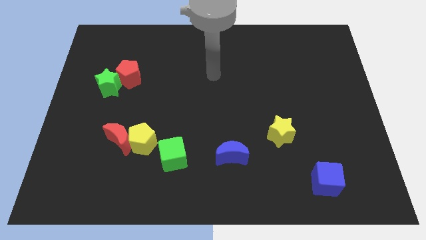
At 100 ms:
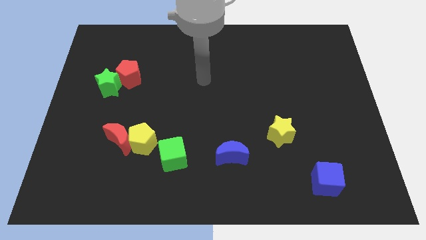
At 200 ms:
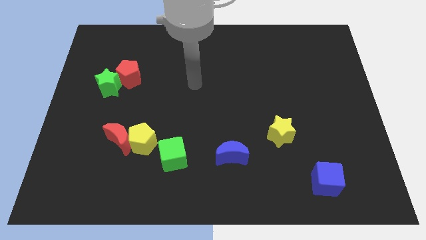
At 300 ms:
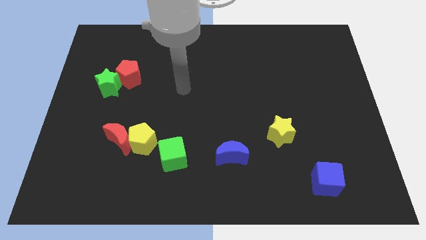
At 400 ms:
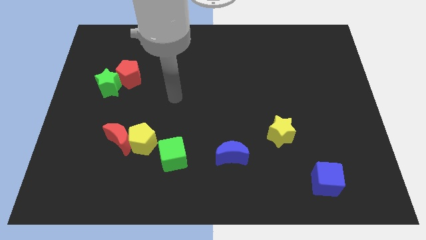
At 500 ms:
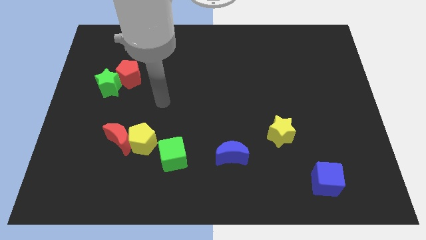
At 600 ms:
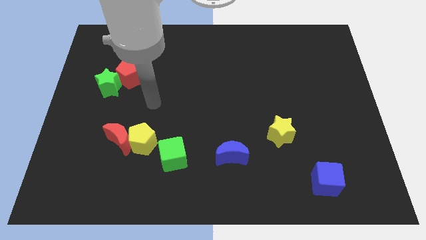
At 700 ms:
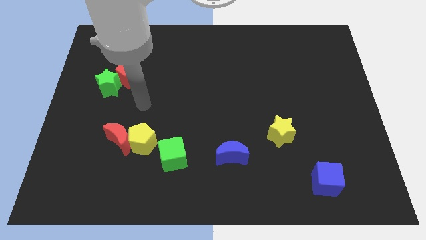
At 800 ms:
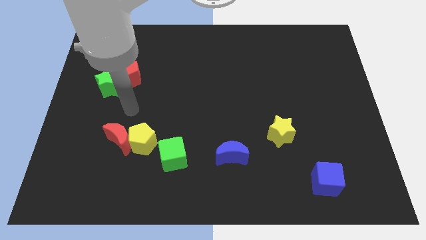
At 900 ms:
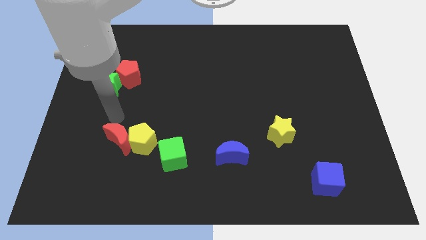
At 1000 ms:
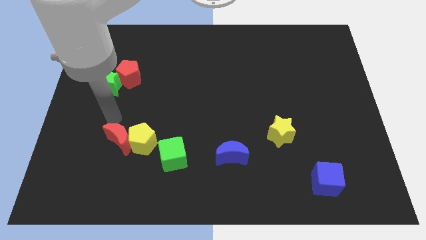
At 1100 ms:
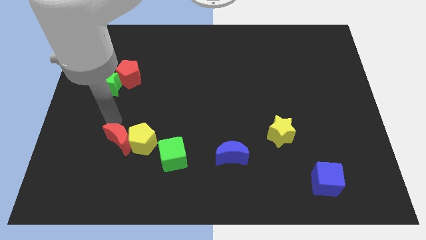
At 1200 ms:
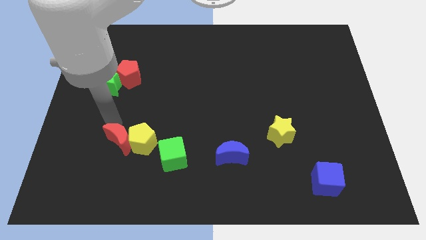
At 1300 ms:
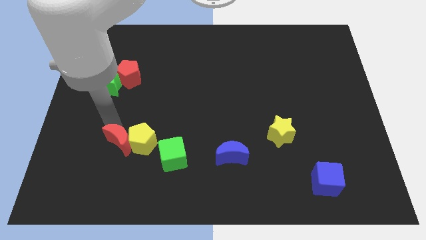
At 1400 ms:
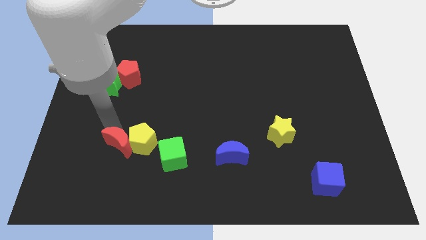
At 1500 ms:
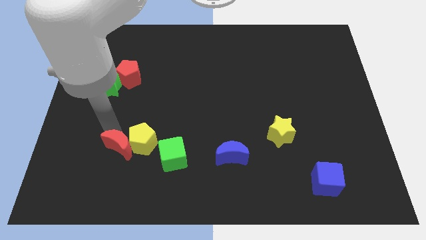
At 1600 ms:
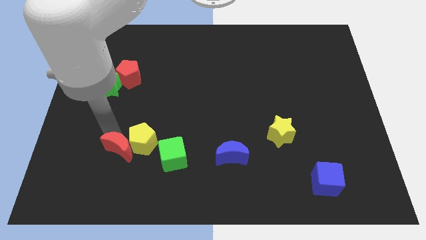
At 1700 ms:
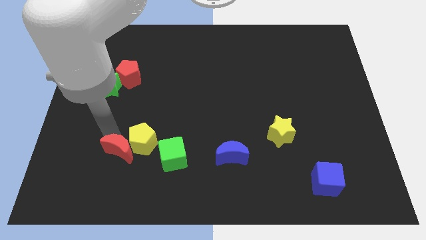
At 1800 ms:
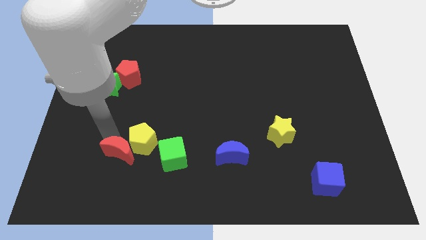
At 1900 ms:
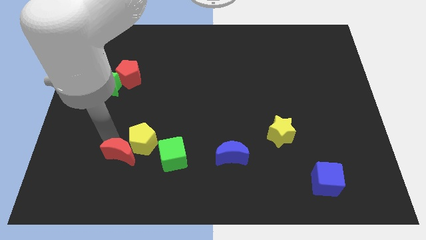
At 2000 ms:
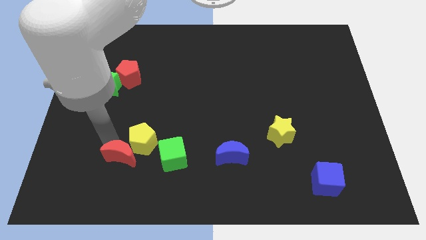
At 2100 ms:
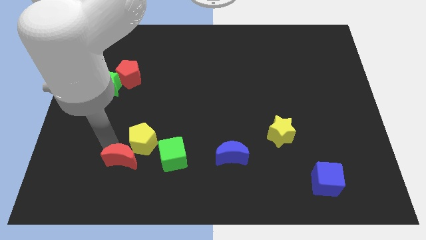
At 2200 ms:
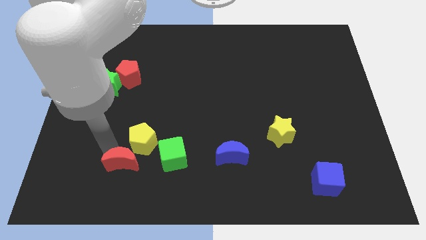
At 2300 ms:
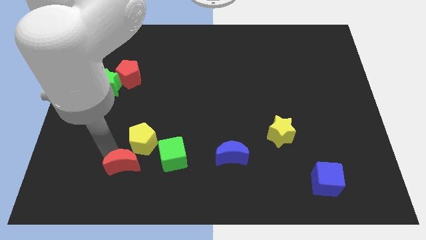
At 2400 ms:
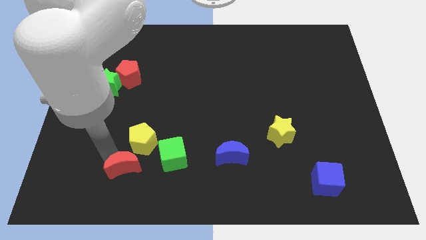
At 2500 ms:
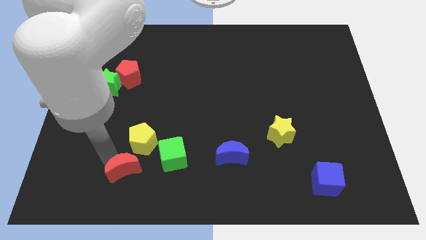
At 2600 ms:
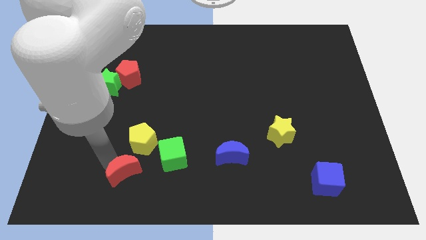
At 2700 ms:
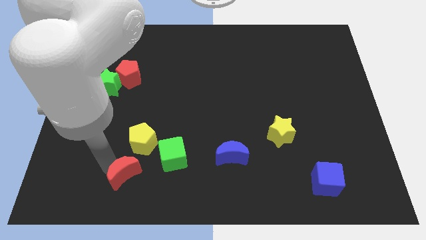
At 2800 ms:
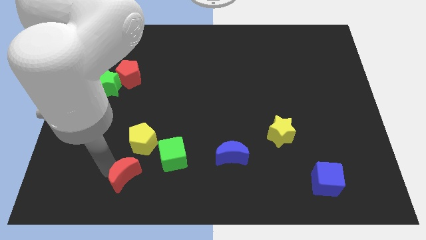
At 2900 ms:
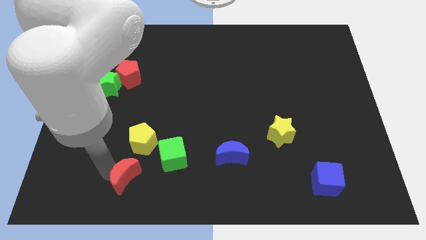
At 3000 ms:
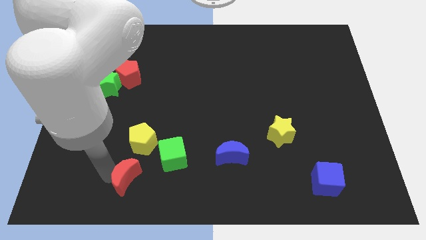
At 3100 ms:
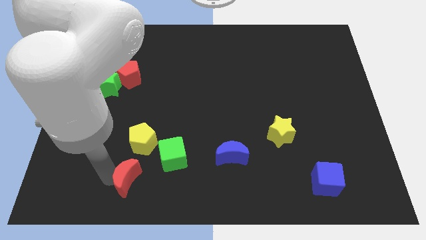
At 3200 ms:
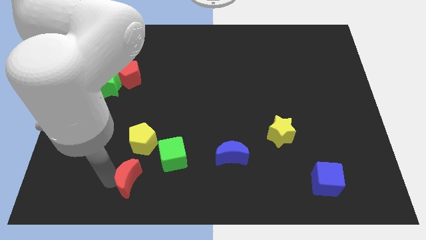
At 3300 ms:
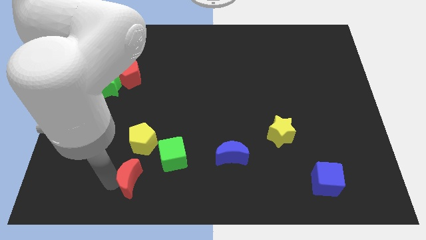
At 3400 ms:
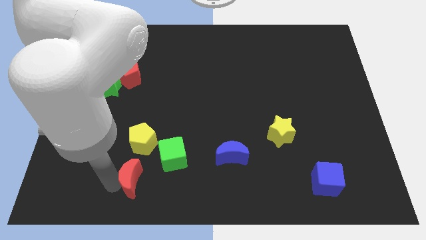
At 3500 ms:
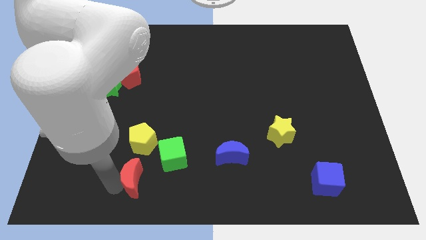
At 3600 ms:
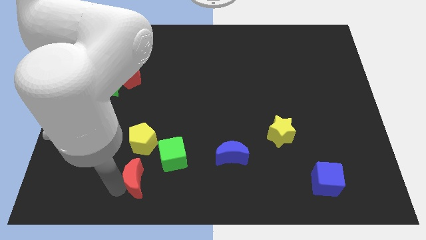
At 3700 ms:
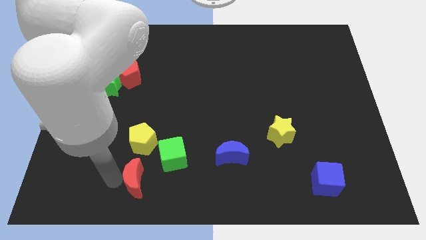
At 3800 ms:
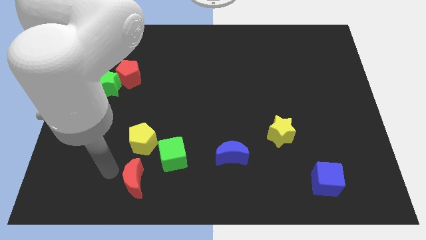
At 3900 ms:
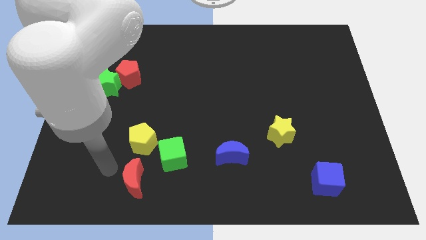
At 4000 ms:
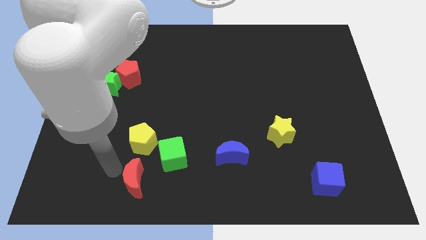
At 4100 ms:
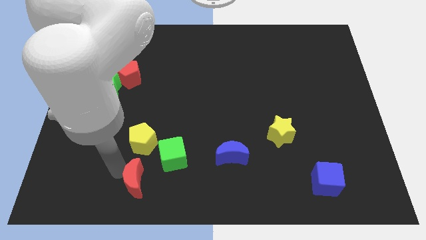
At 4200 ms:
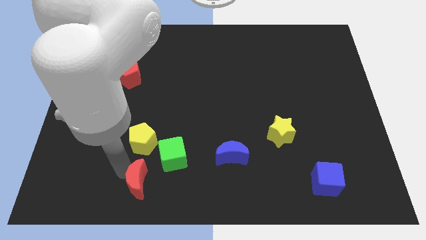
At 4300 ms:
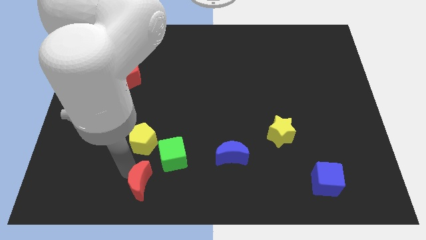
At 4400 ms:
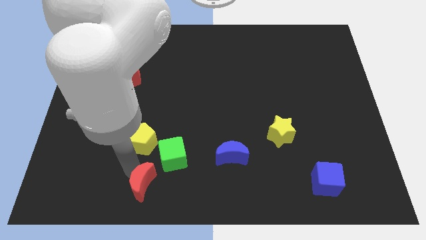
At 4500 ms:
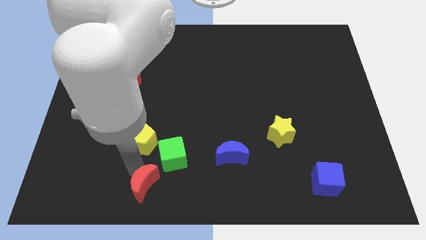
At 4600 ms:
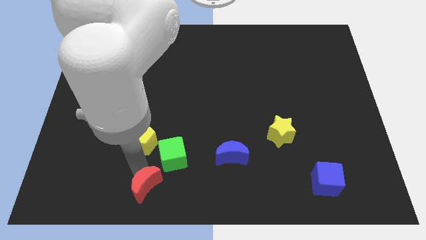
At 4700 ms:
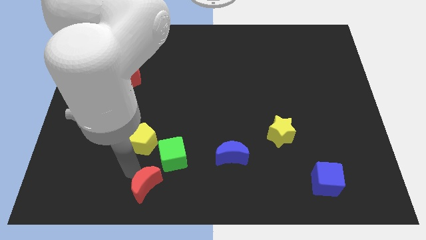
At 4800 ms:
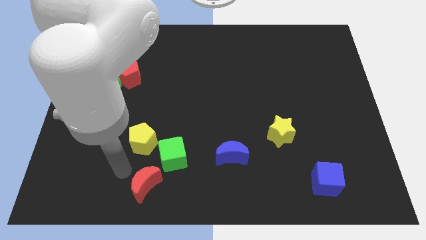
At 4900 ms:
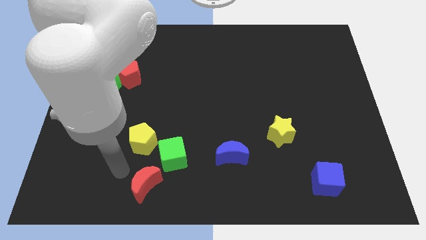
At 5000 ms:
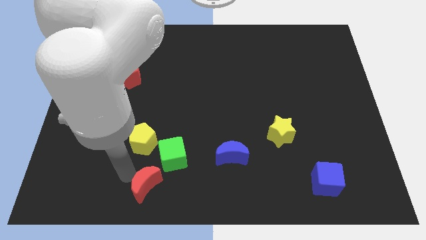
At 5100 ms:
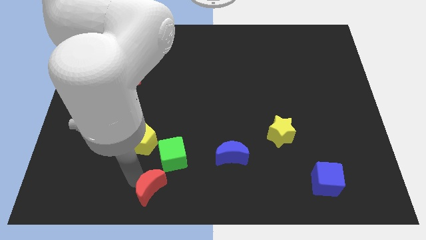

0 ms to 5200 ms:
put the red moon to the bottom

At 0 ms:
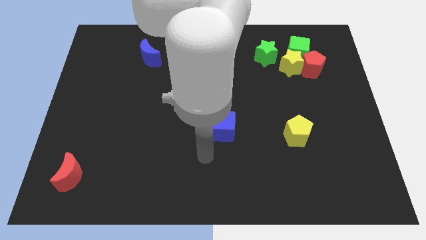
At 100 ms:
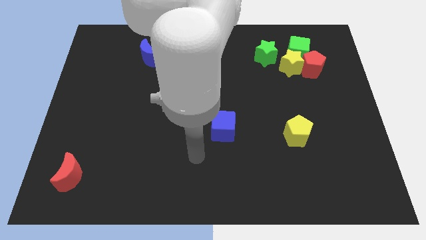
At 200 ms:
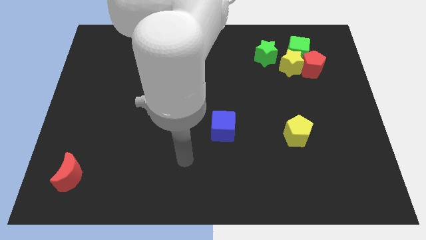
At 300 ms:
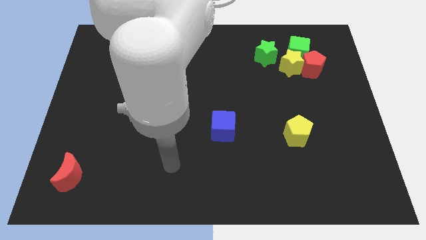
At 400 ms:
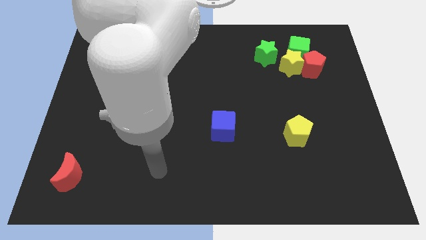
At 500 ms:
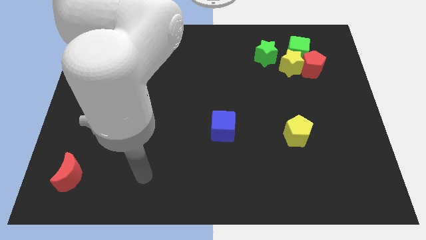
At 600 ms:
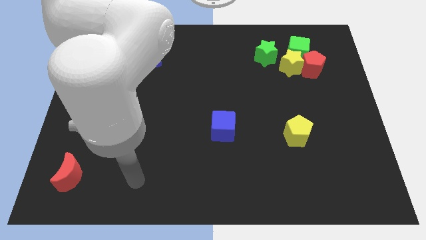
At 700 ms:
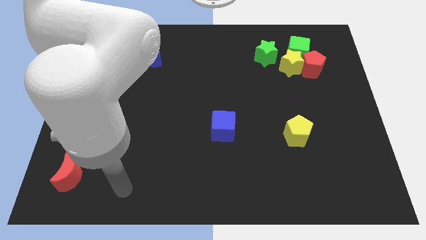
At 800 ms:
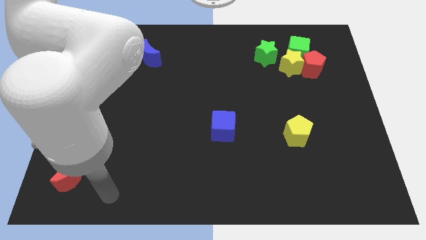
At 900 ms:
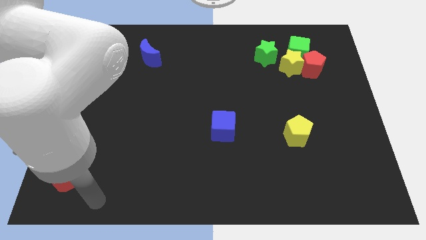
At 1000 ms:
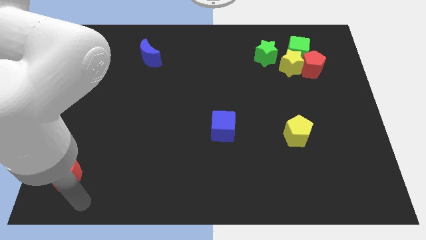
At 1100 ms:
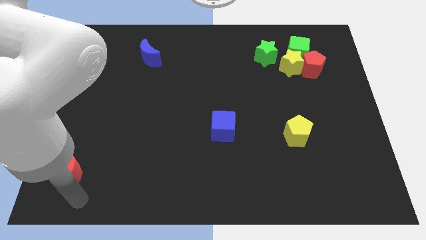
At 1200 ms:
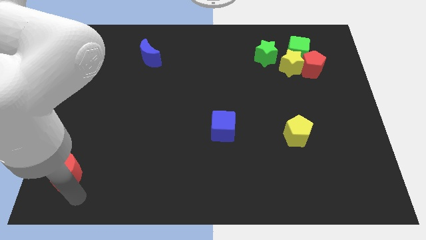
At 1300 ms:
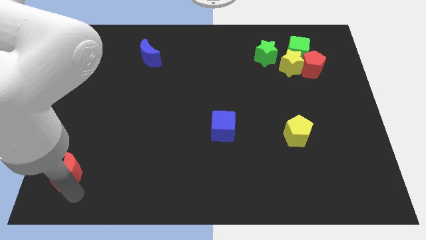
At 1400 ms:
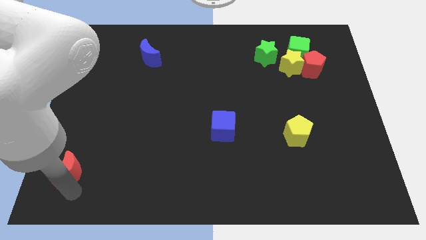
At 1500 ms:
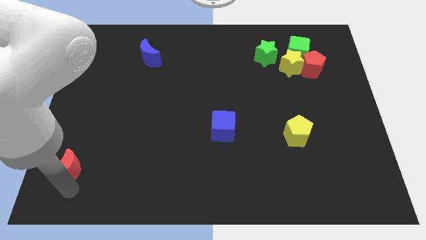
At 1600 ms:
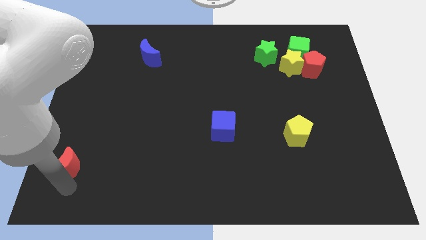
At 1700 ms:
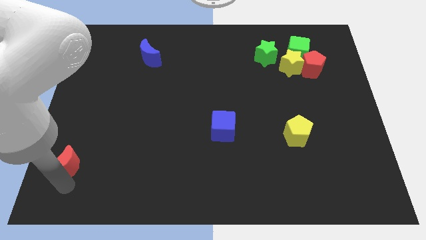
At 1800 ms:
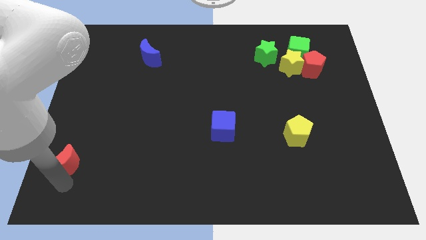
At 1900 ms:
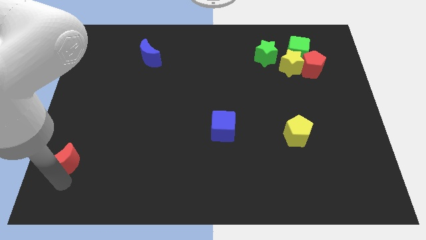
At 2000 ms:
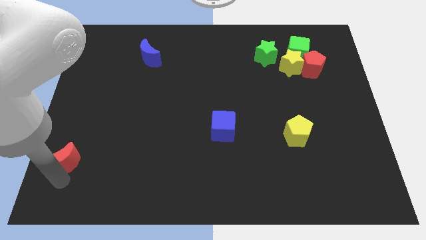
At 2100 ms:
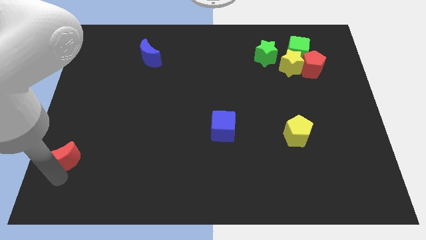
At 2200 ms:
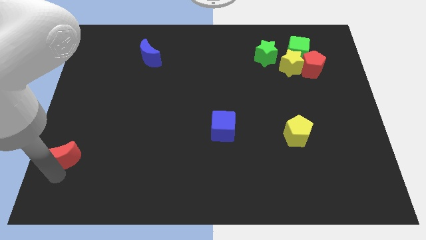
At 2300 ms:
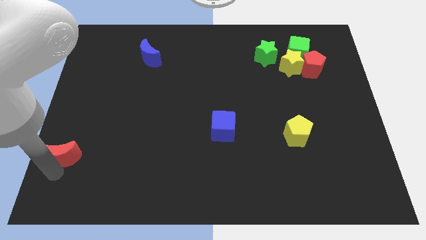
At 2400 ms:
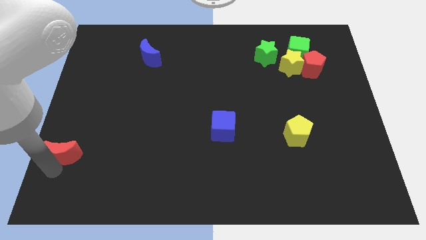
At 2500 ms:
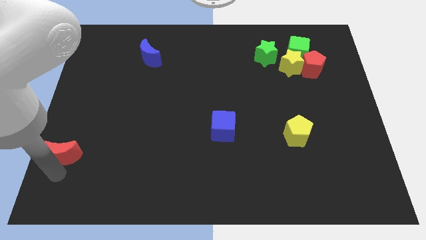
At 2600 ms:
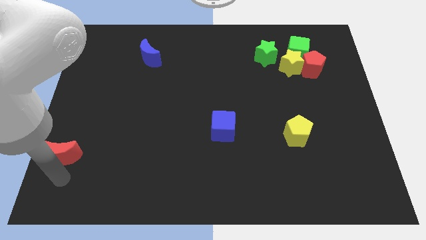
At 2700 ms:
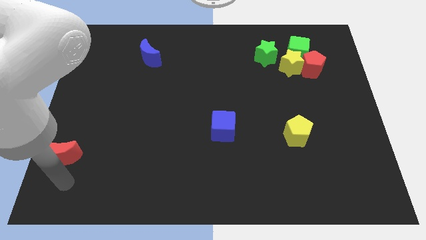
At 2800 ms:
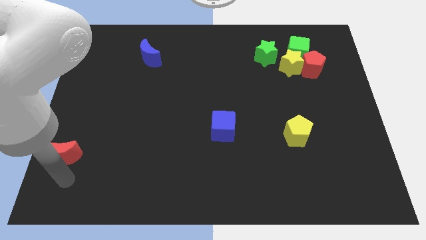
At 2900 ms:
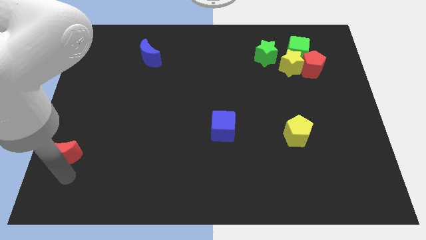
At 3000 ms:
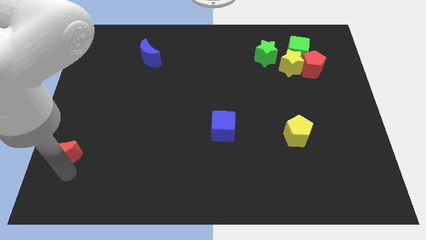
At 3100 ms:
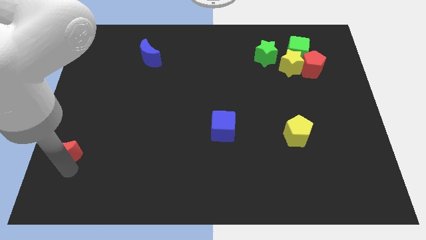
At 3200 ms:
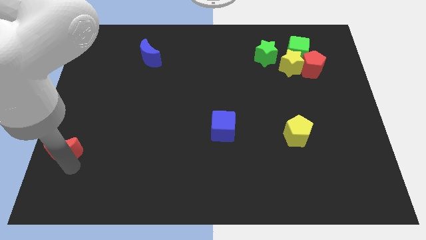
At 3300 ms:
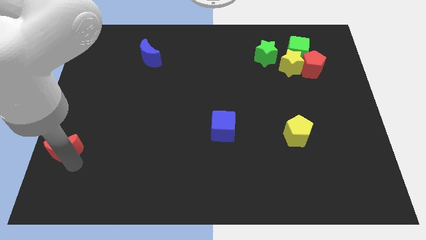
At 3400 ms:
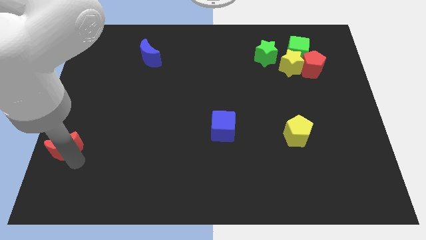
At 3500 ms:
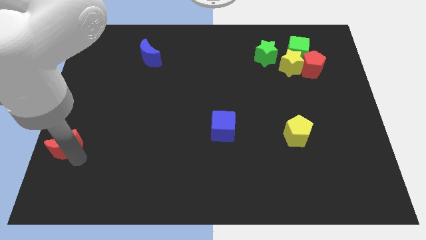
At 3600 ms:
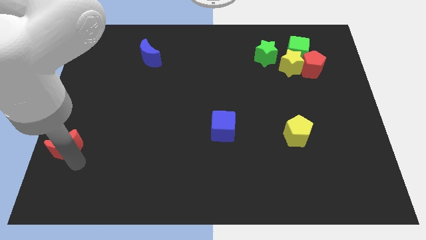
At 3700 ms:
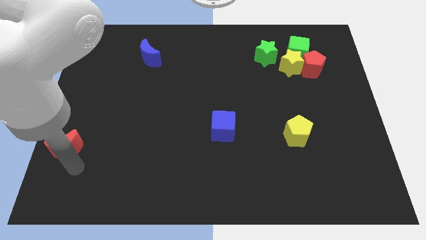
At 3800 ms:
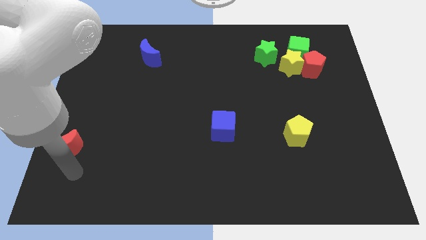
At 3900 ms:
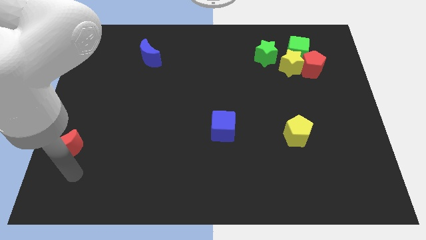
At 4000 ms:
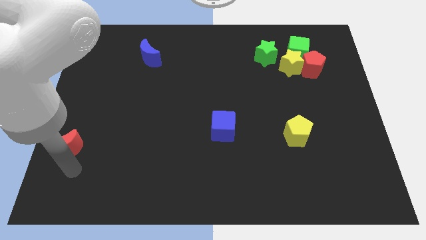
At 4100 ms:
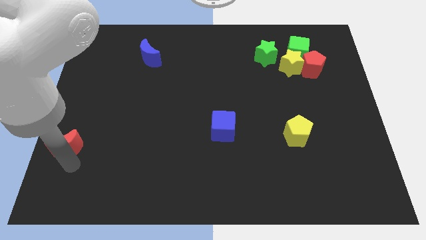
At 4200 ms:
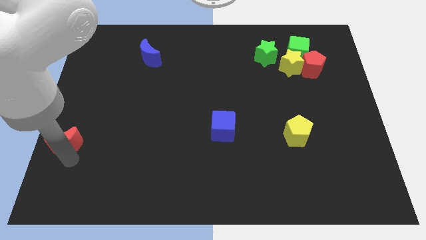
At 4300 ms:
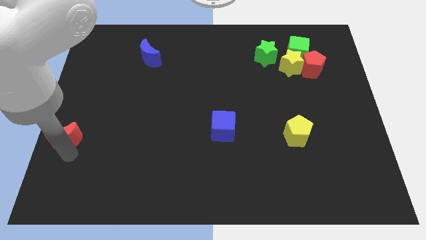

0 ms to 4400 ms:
move the red moon to the left side of the board
